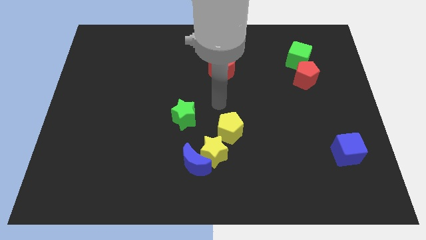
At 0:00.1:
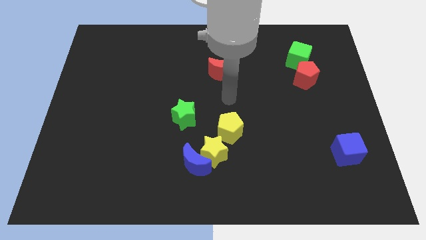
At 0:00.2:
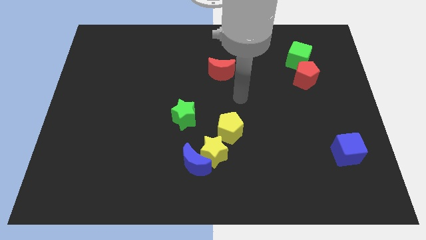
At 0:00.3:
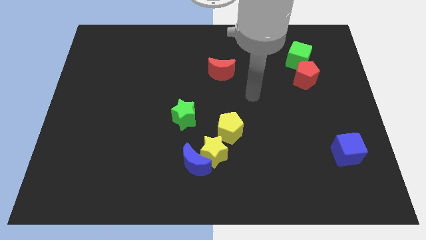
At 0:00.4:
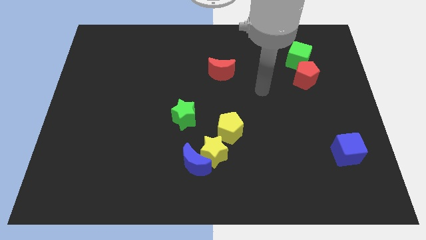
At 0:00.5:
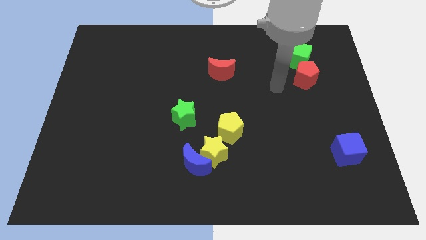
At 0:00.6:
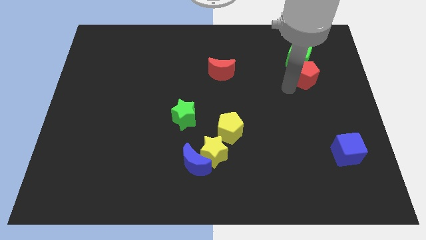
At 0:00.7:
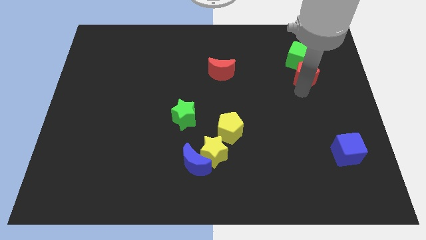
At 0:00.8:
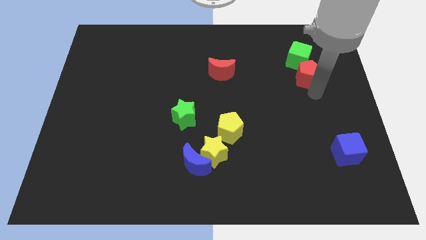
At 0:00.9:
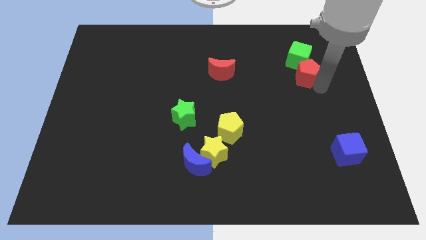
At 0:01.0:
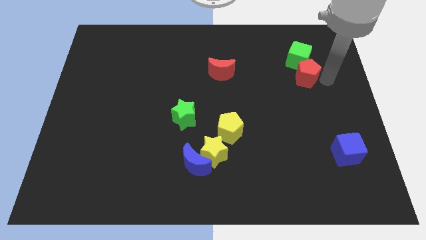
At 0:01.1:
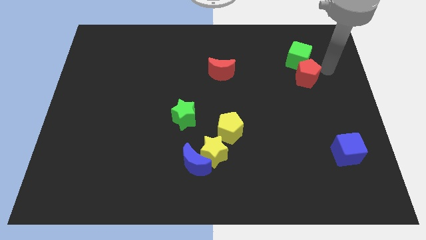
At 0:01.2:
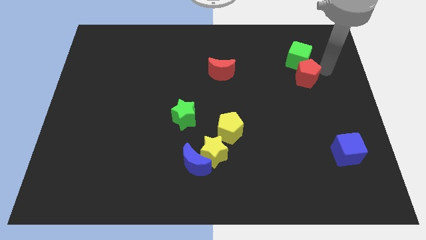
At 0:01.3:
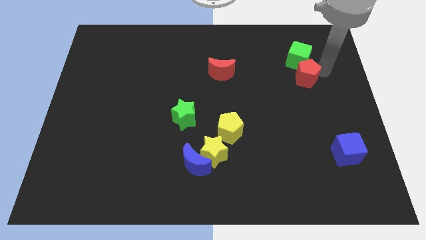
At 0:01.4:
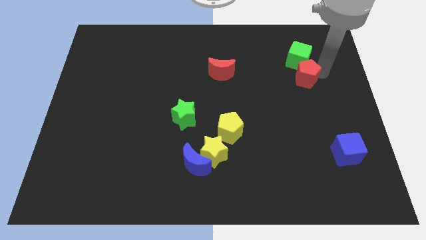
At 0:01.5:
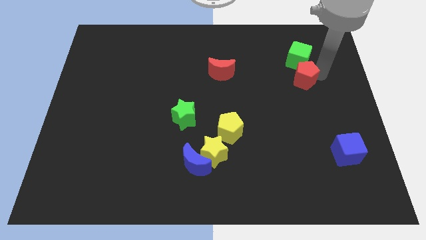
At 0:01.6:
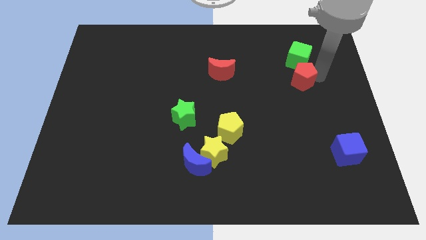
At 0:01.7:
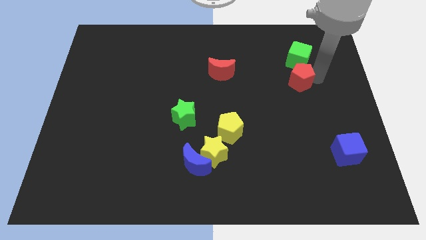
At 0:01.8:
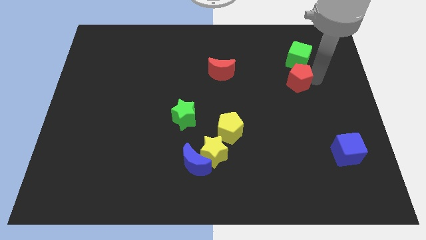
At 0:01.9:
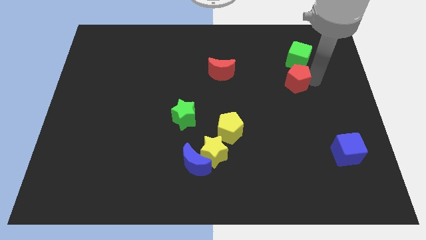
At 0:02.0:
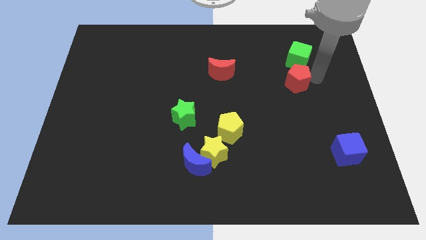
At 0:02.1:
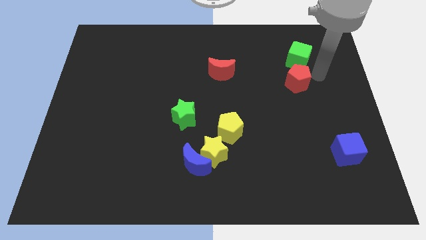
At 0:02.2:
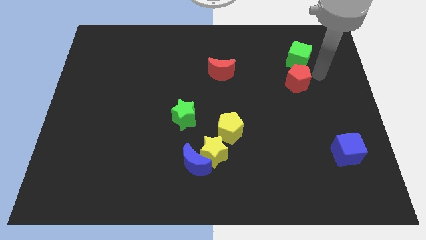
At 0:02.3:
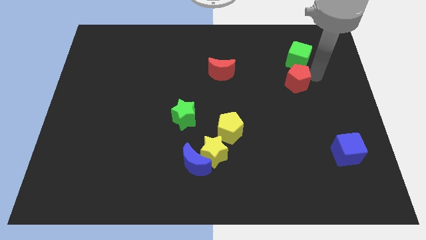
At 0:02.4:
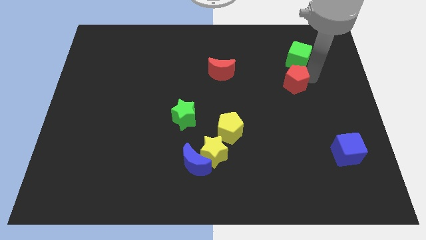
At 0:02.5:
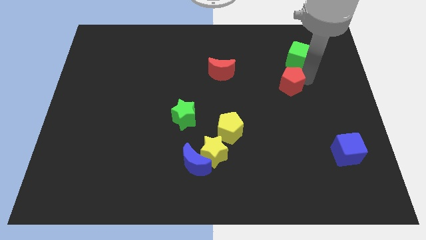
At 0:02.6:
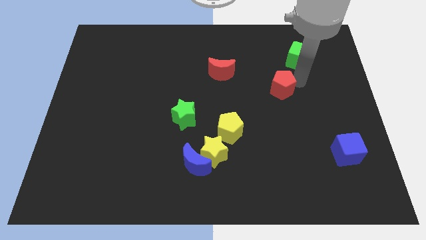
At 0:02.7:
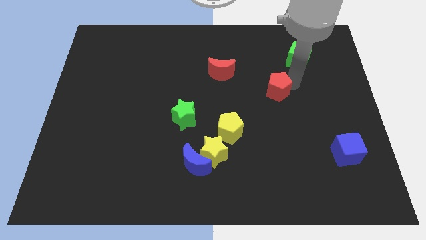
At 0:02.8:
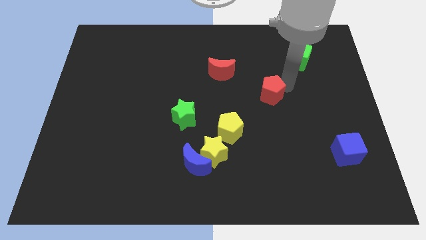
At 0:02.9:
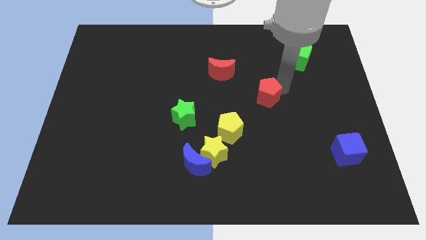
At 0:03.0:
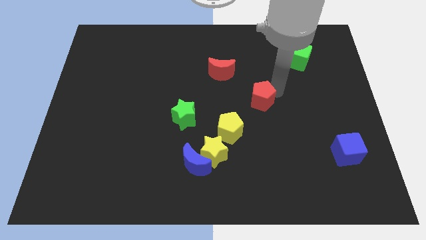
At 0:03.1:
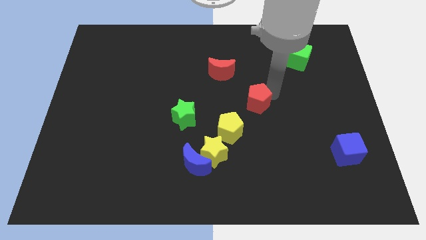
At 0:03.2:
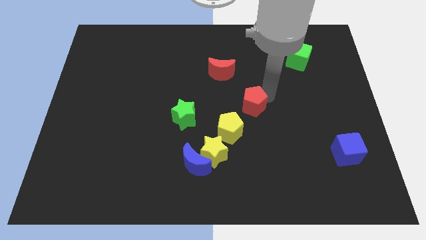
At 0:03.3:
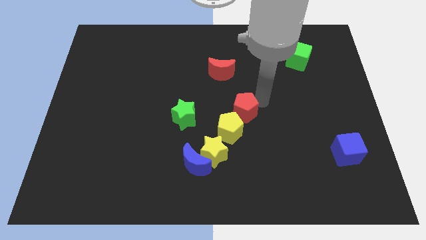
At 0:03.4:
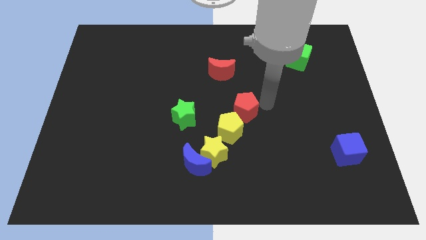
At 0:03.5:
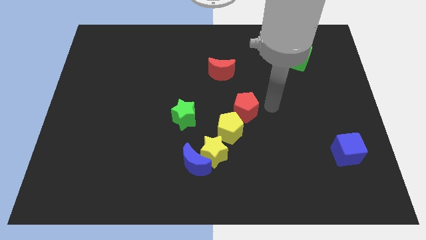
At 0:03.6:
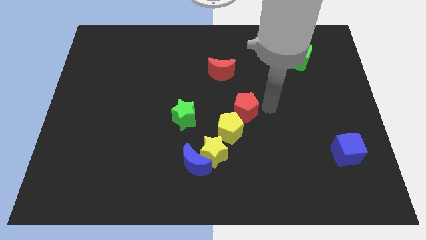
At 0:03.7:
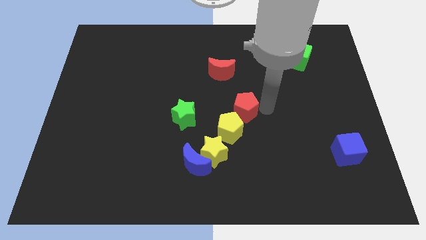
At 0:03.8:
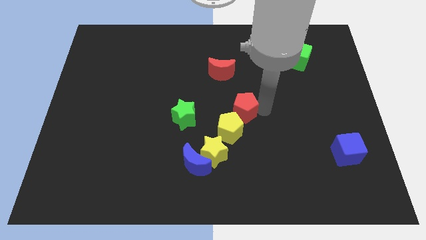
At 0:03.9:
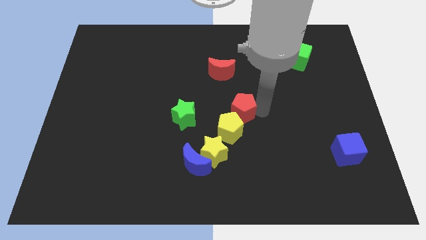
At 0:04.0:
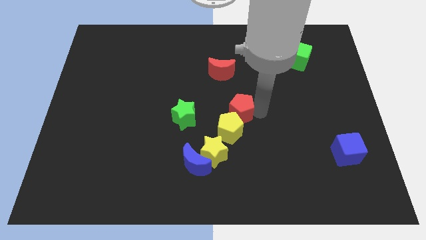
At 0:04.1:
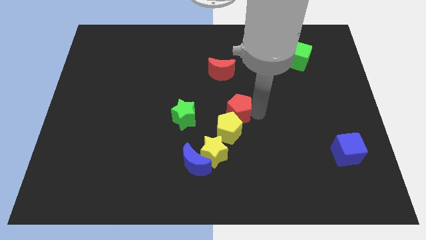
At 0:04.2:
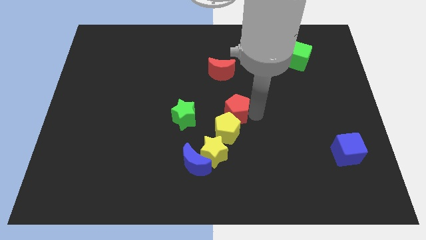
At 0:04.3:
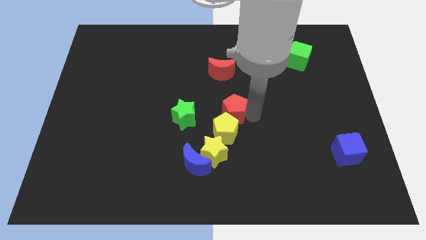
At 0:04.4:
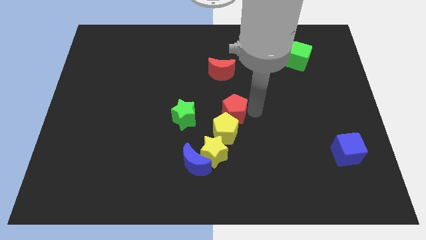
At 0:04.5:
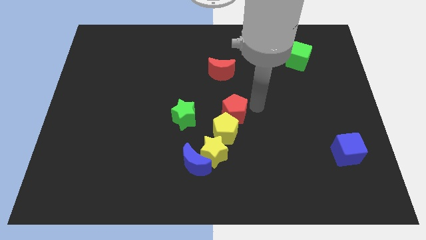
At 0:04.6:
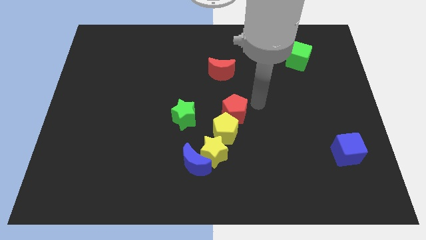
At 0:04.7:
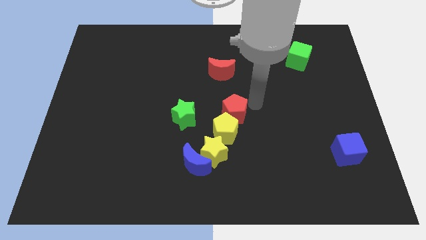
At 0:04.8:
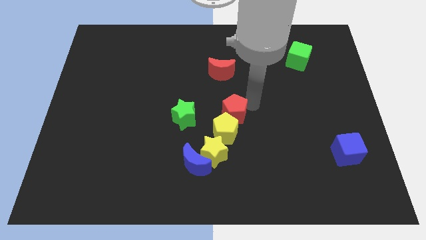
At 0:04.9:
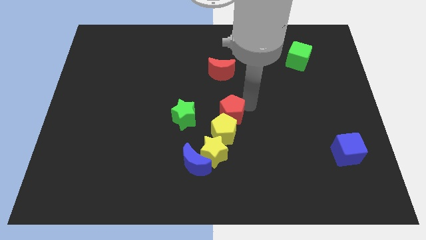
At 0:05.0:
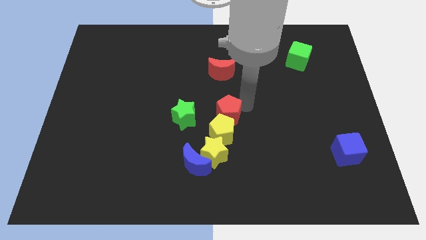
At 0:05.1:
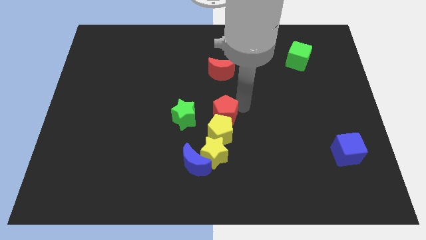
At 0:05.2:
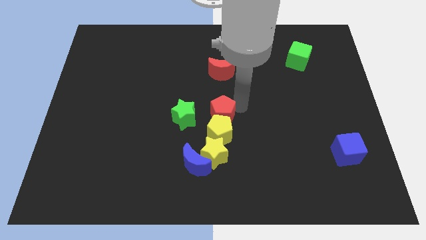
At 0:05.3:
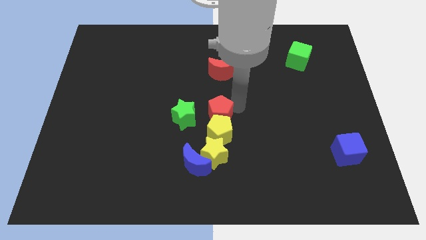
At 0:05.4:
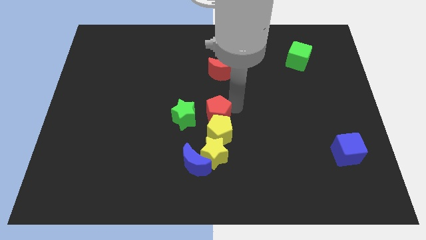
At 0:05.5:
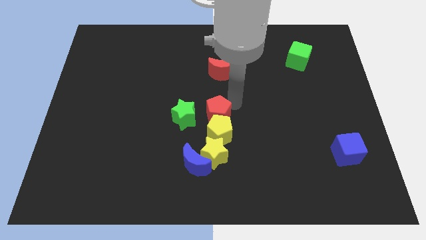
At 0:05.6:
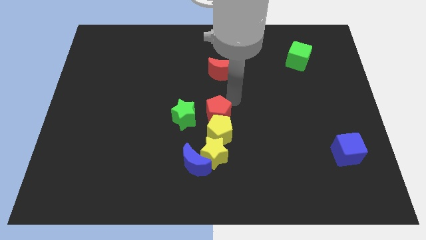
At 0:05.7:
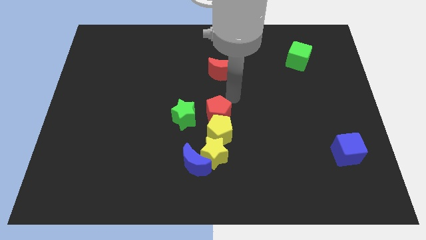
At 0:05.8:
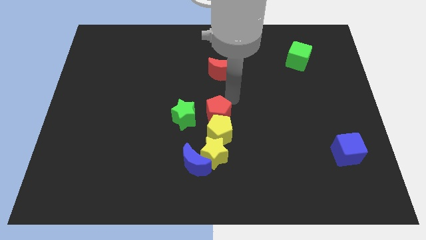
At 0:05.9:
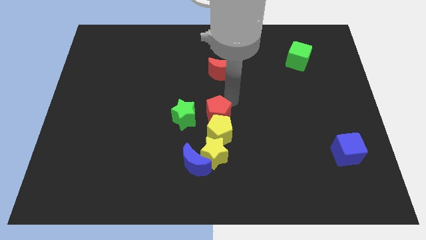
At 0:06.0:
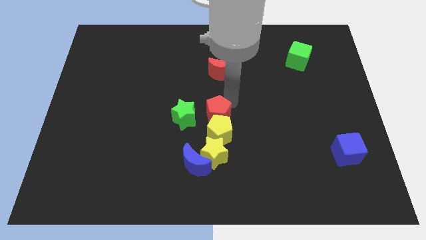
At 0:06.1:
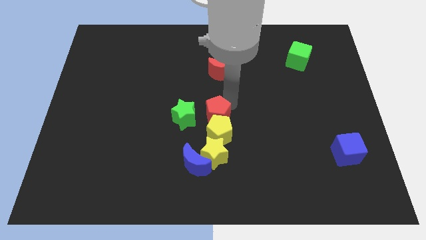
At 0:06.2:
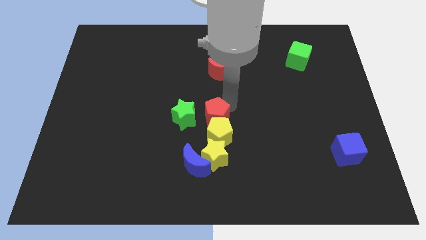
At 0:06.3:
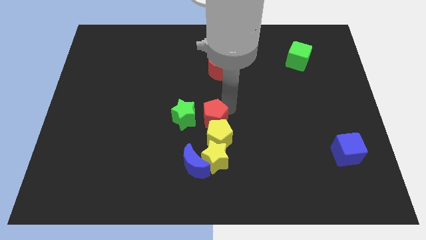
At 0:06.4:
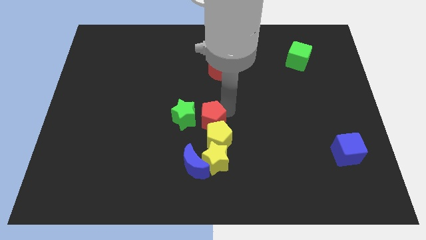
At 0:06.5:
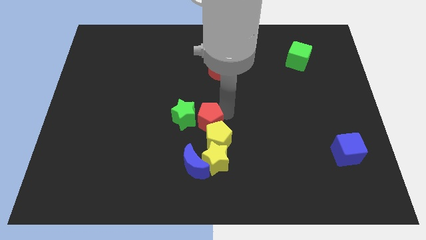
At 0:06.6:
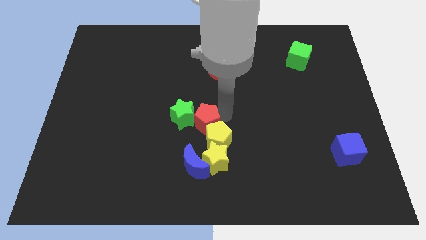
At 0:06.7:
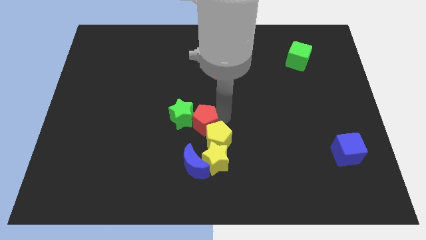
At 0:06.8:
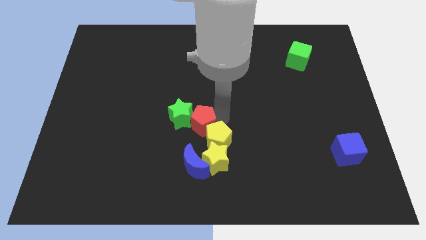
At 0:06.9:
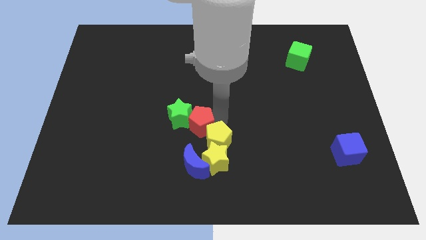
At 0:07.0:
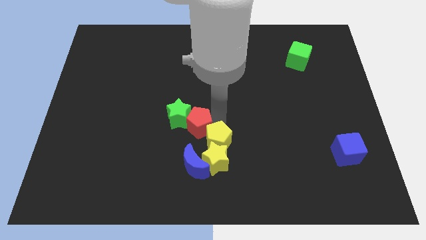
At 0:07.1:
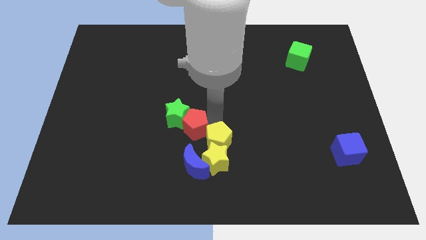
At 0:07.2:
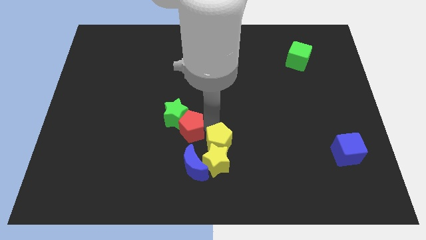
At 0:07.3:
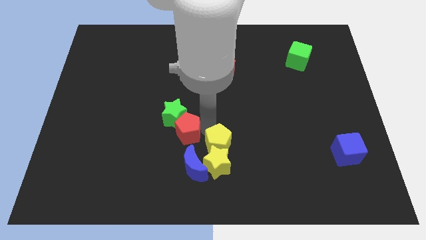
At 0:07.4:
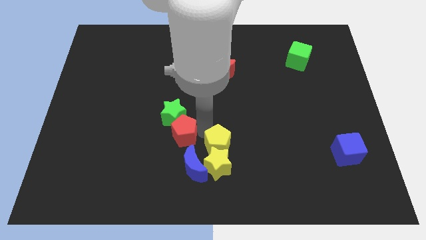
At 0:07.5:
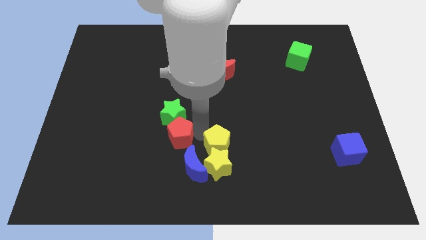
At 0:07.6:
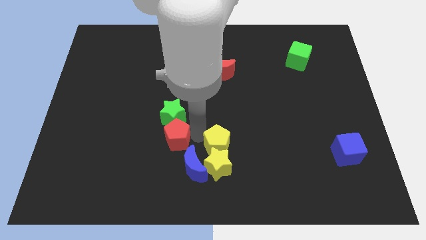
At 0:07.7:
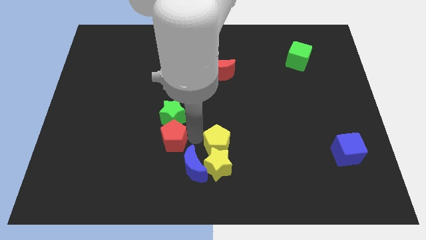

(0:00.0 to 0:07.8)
move the red pentagon to the bottom left of the green star
